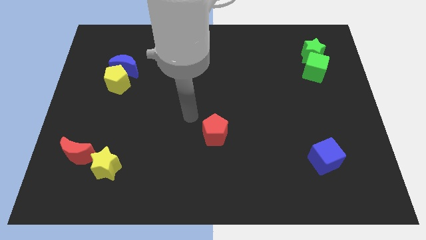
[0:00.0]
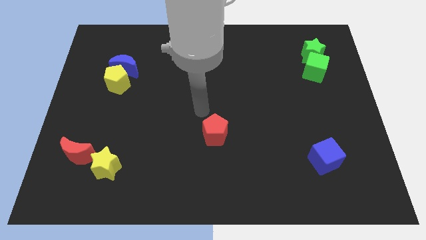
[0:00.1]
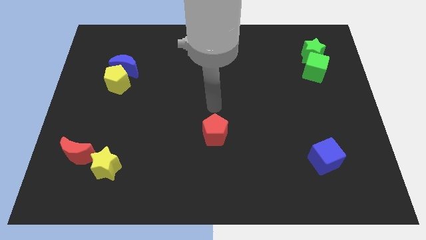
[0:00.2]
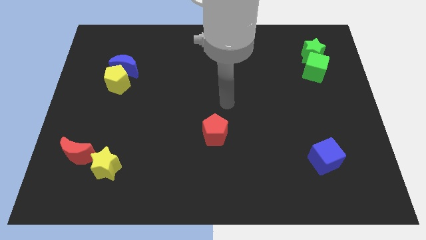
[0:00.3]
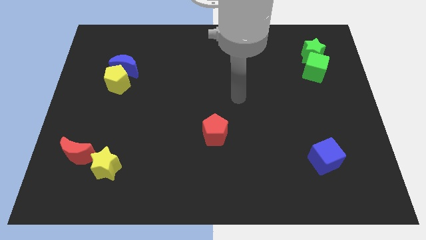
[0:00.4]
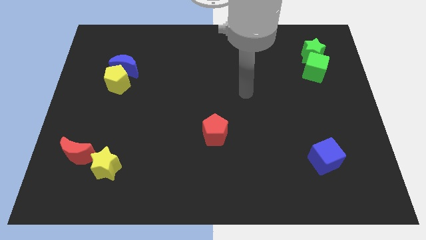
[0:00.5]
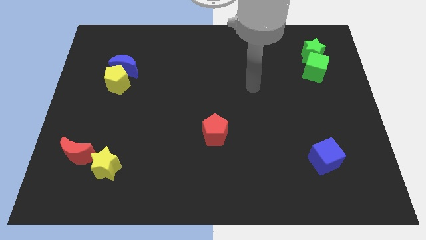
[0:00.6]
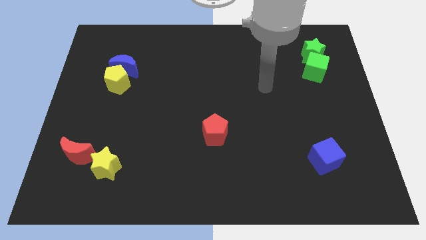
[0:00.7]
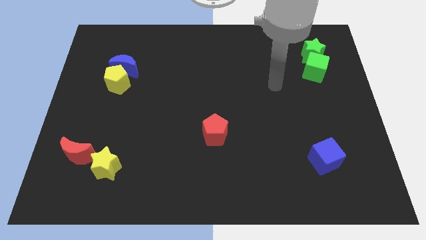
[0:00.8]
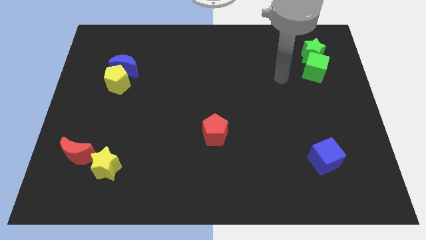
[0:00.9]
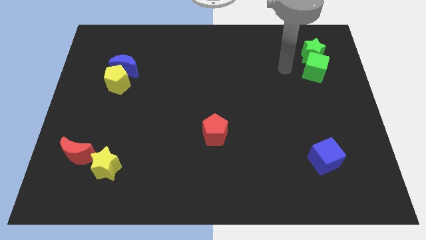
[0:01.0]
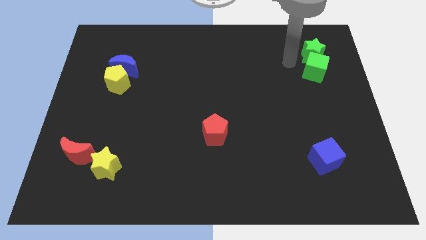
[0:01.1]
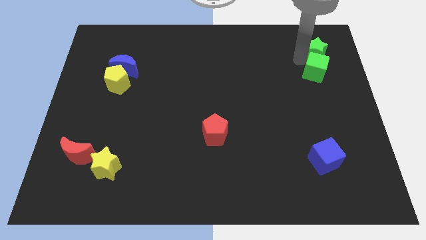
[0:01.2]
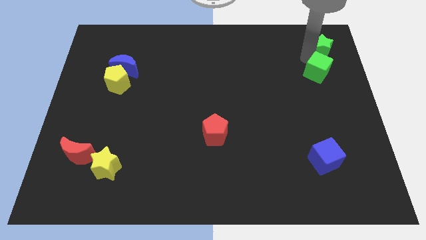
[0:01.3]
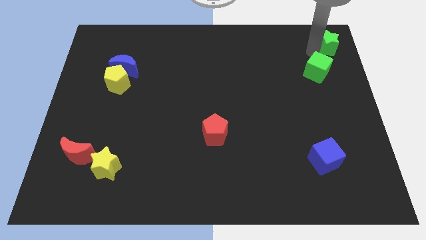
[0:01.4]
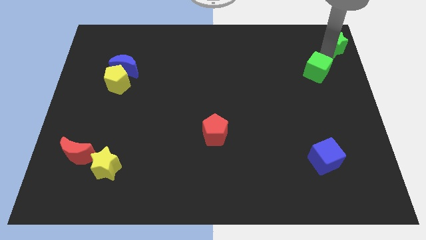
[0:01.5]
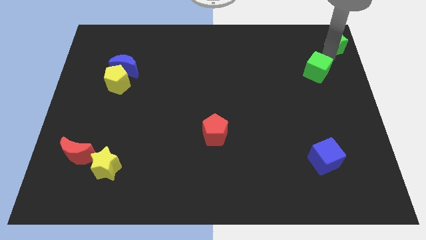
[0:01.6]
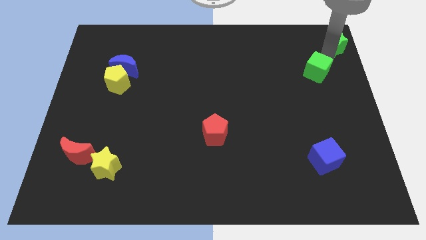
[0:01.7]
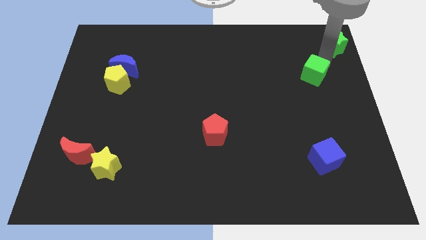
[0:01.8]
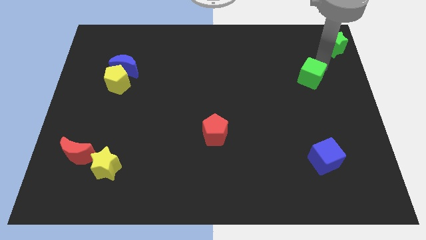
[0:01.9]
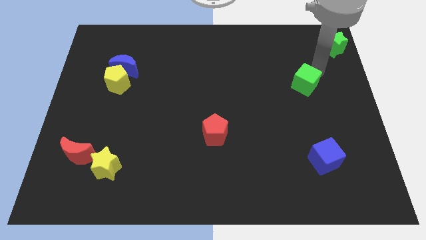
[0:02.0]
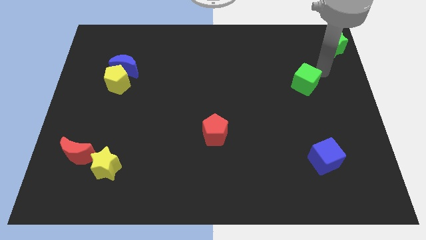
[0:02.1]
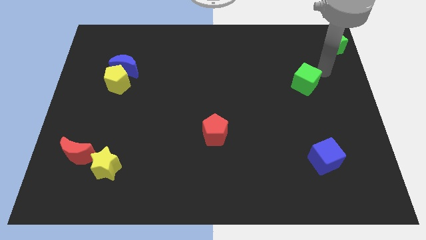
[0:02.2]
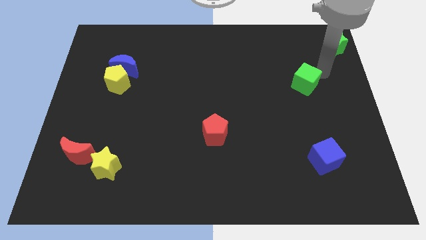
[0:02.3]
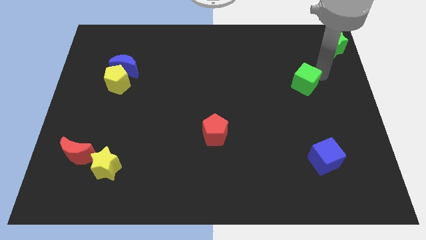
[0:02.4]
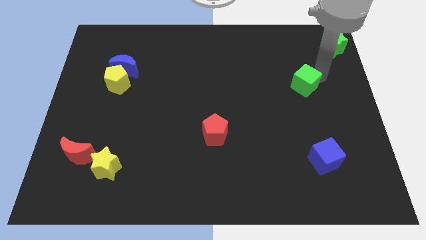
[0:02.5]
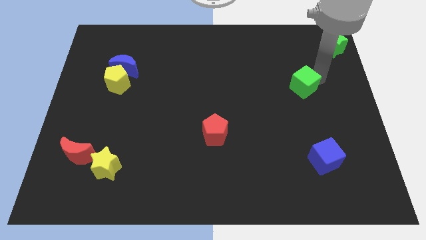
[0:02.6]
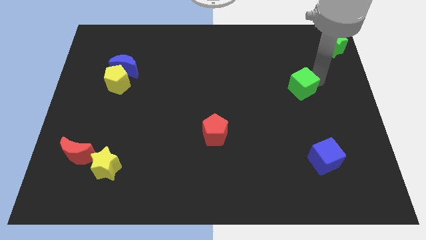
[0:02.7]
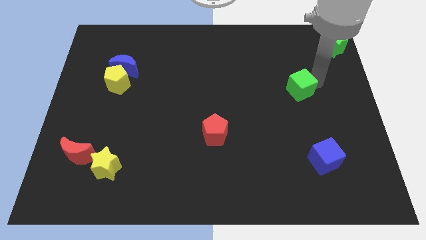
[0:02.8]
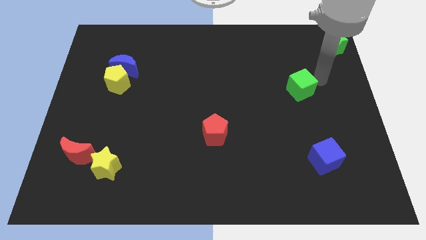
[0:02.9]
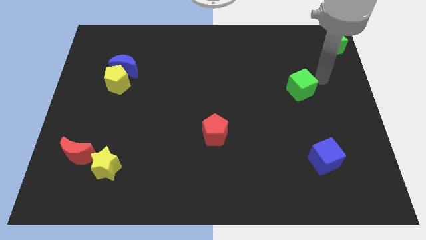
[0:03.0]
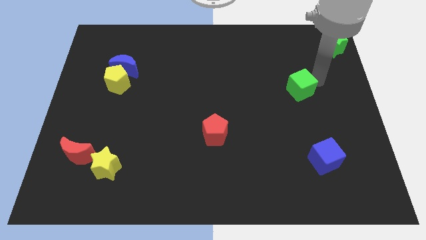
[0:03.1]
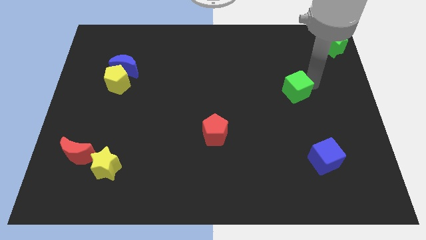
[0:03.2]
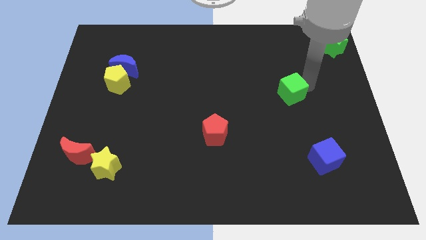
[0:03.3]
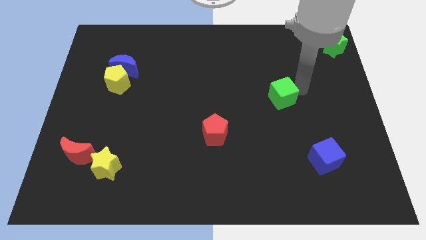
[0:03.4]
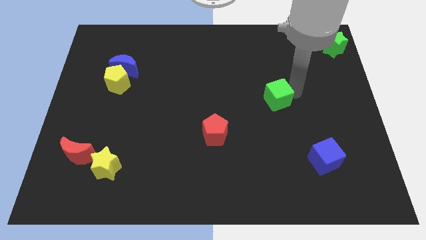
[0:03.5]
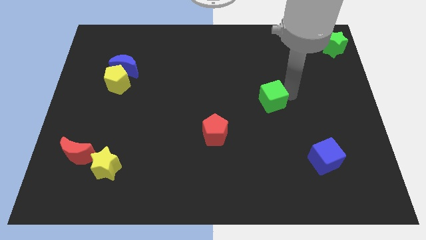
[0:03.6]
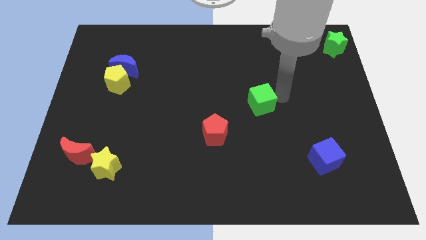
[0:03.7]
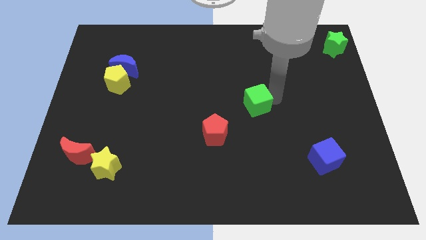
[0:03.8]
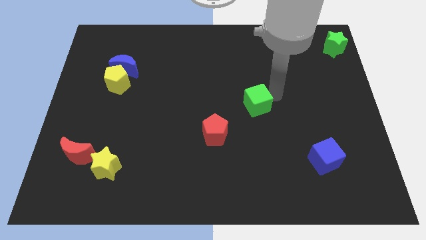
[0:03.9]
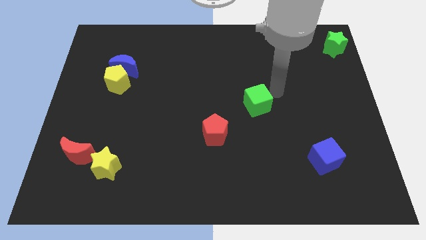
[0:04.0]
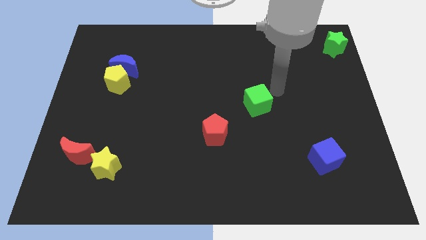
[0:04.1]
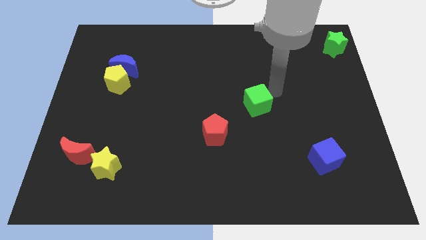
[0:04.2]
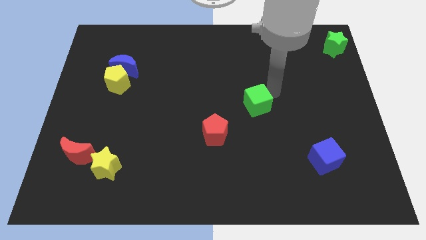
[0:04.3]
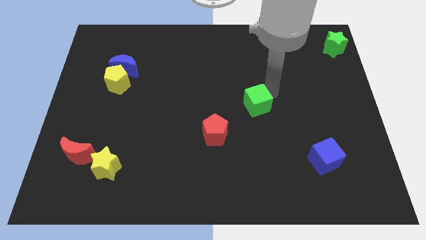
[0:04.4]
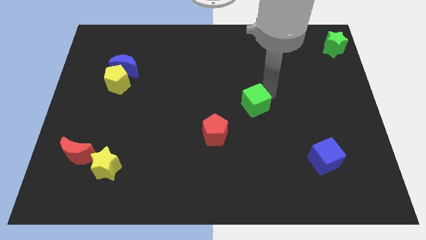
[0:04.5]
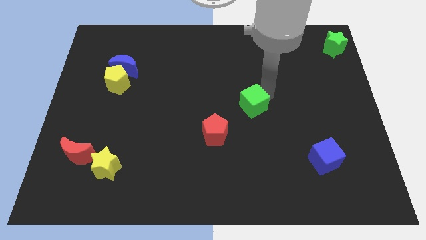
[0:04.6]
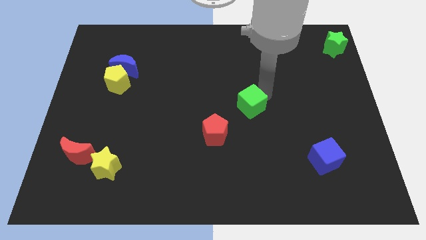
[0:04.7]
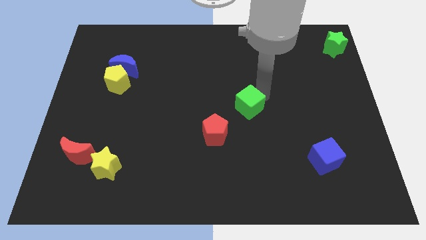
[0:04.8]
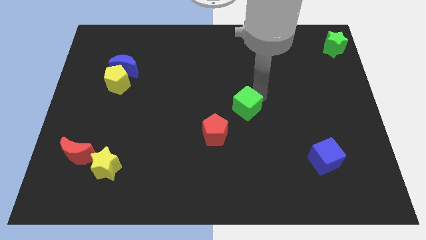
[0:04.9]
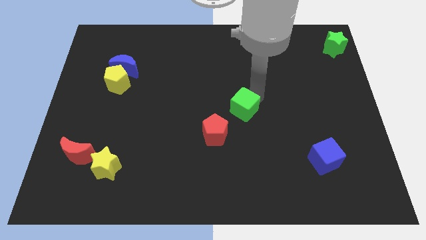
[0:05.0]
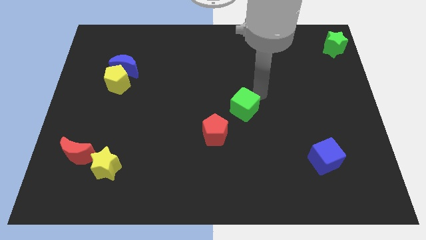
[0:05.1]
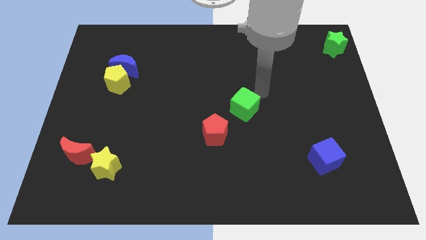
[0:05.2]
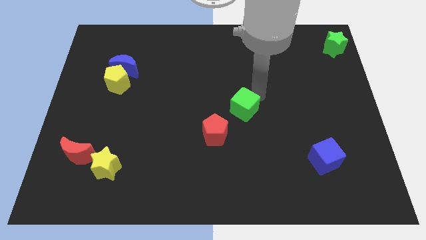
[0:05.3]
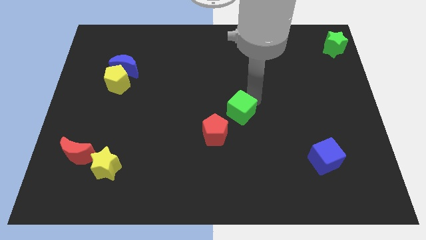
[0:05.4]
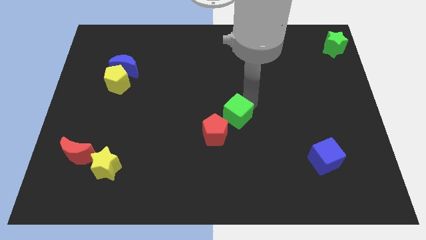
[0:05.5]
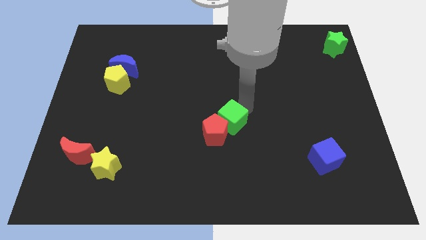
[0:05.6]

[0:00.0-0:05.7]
put the green cube towards the red pentagon

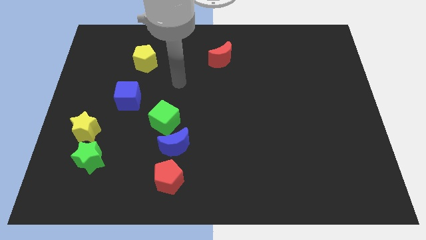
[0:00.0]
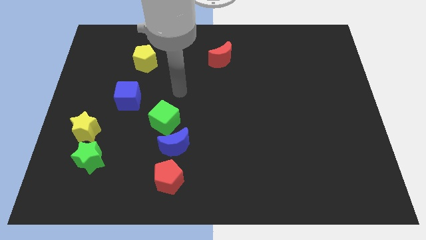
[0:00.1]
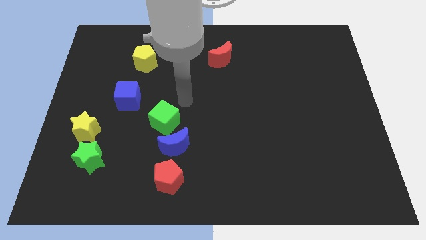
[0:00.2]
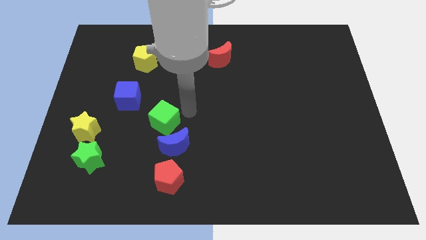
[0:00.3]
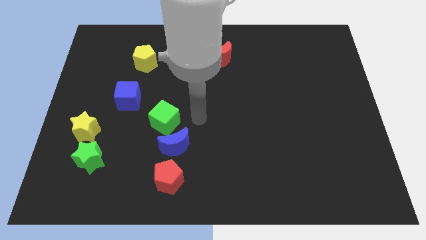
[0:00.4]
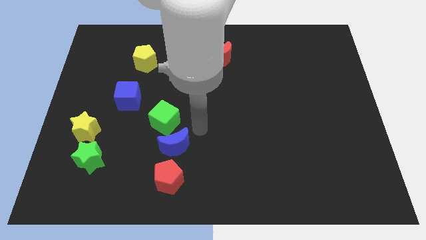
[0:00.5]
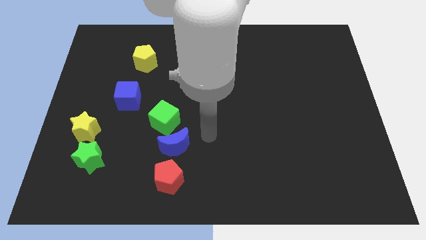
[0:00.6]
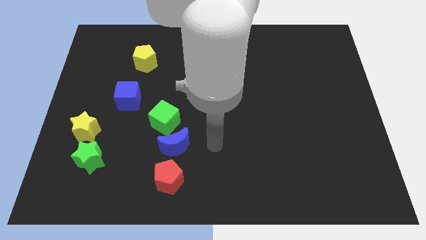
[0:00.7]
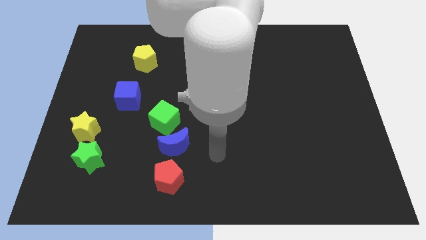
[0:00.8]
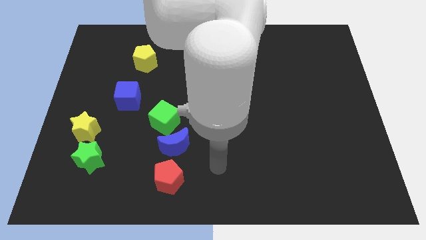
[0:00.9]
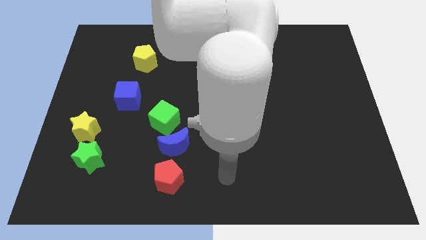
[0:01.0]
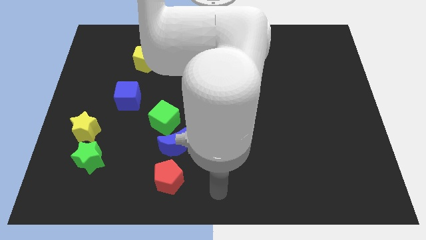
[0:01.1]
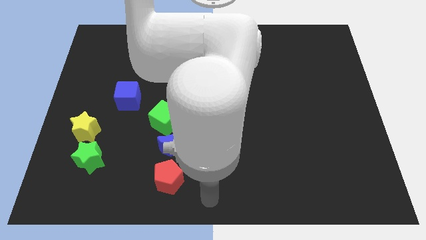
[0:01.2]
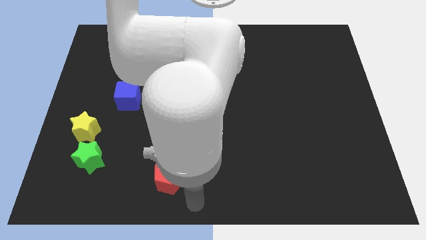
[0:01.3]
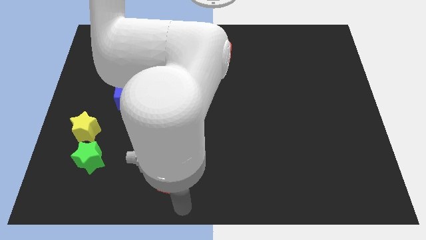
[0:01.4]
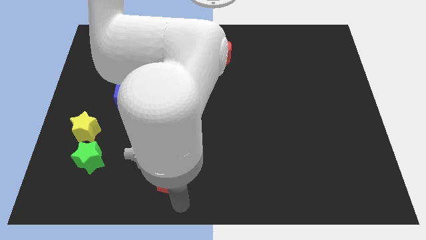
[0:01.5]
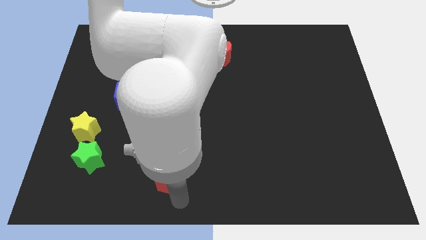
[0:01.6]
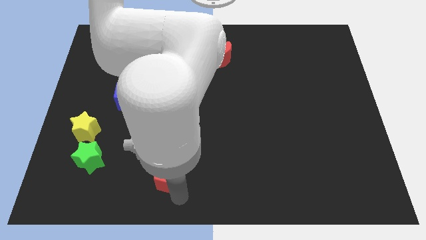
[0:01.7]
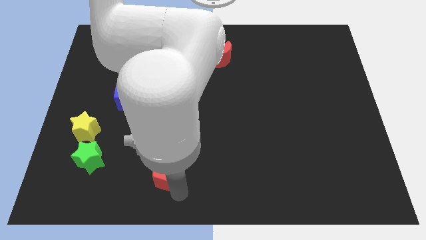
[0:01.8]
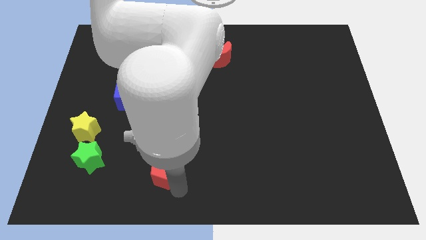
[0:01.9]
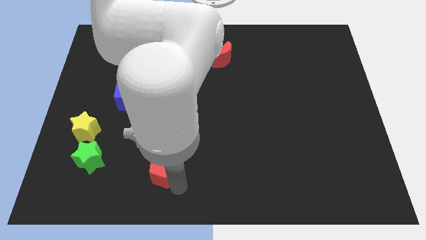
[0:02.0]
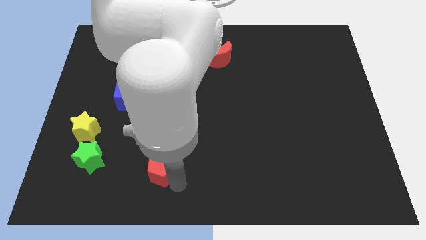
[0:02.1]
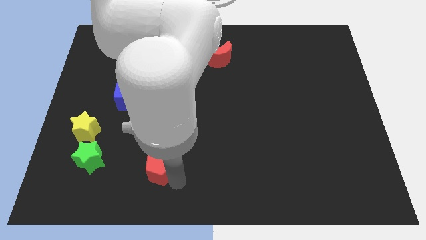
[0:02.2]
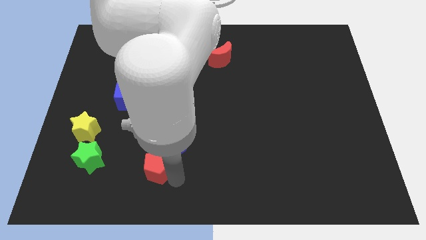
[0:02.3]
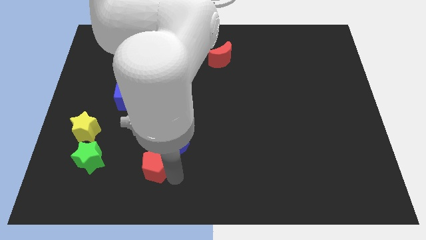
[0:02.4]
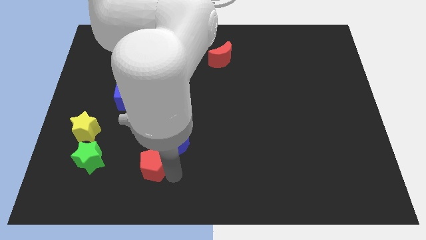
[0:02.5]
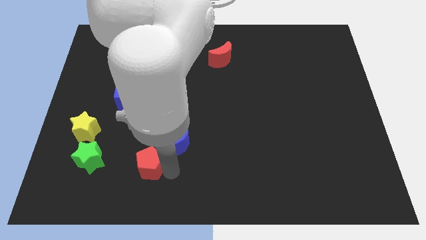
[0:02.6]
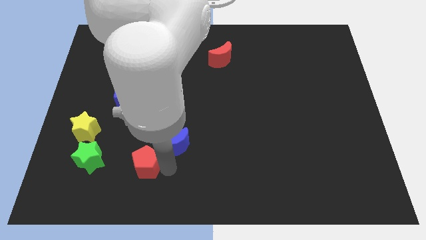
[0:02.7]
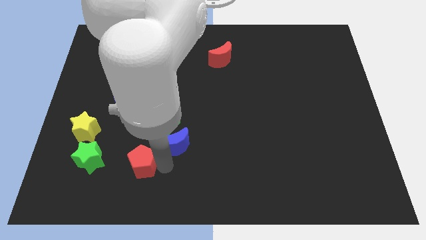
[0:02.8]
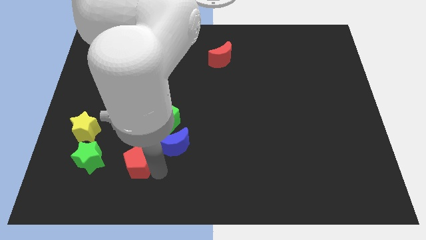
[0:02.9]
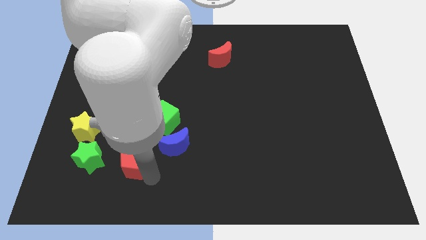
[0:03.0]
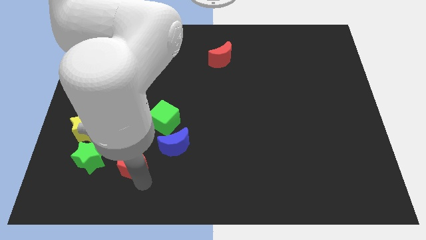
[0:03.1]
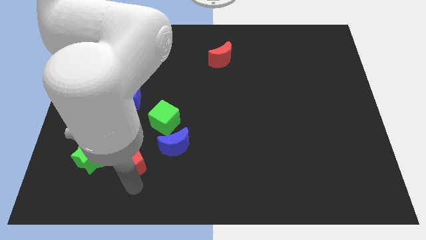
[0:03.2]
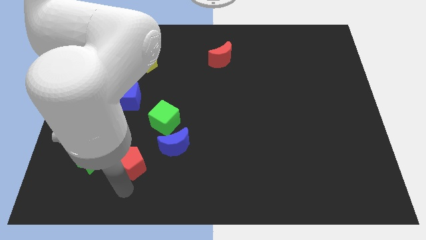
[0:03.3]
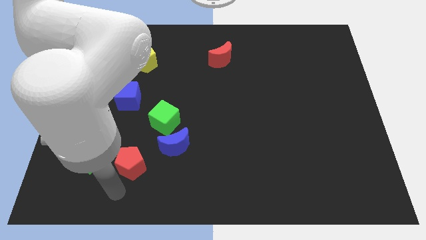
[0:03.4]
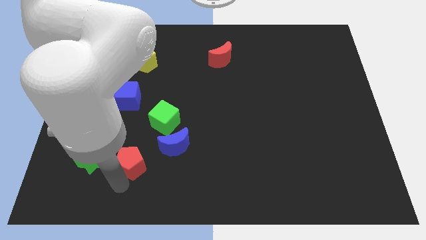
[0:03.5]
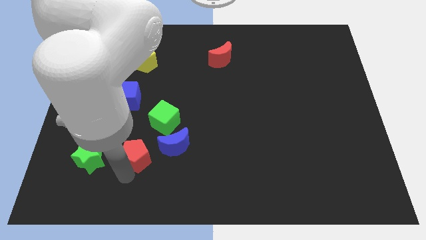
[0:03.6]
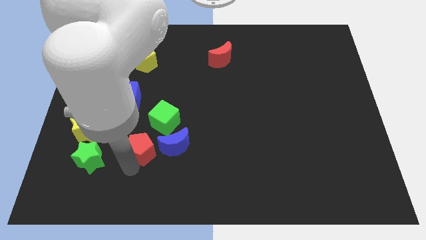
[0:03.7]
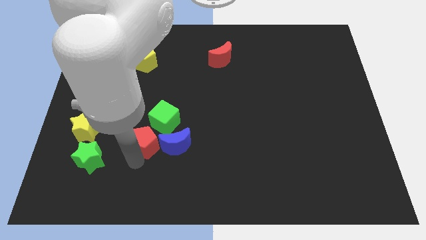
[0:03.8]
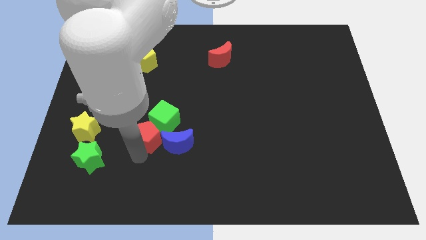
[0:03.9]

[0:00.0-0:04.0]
push the red pentagon towards the green cube
